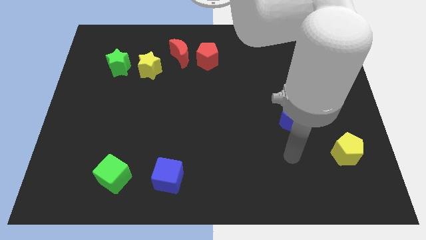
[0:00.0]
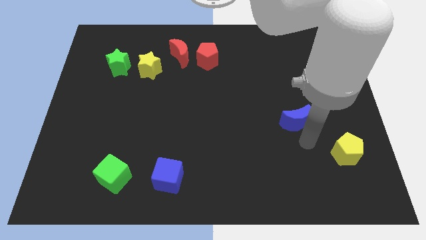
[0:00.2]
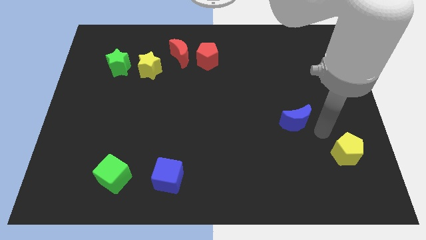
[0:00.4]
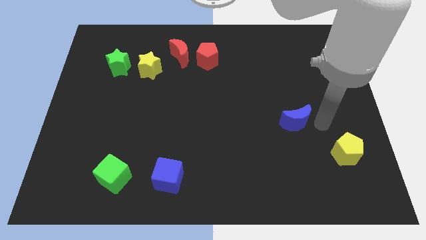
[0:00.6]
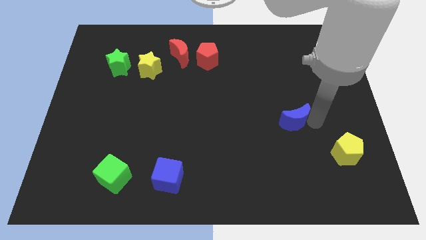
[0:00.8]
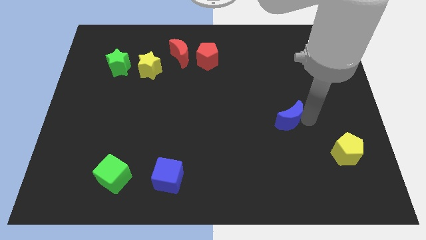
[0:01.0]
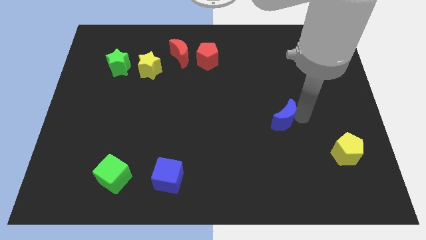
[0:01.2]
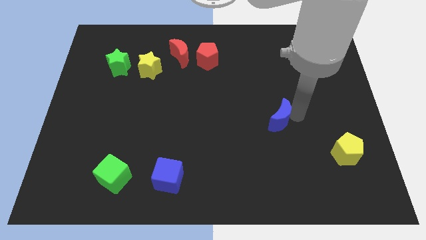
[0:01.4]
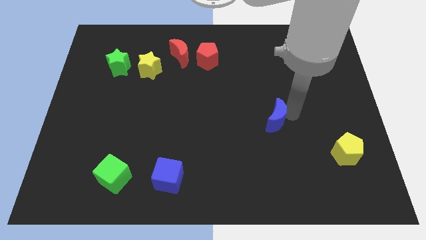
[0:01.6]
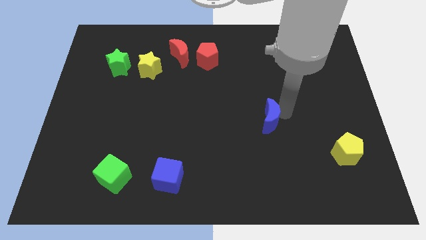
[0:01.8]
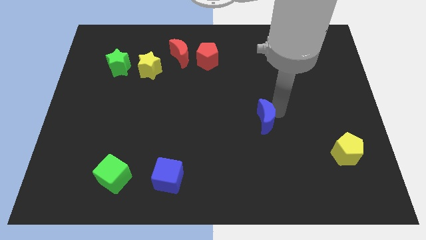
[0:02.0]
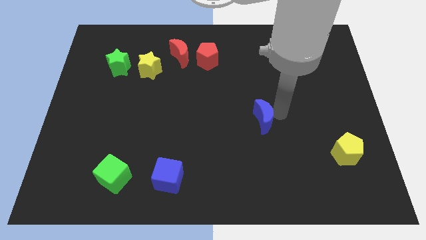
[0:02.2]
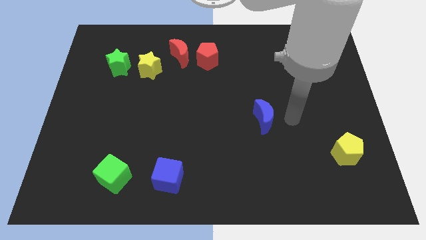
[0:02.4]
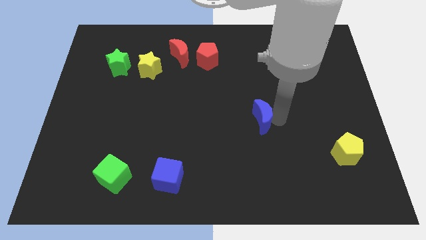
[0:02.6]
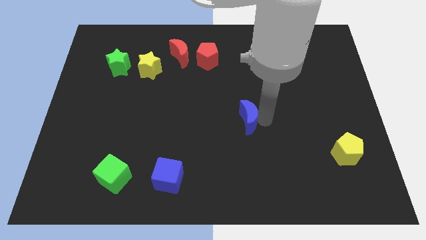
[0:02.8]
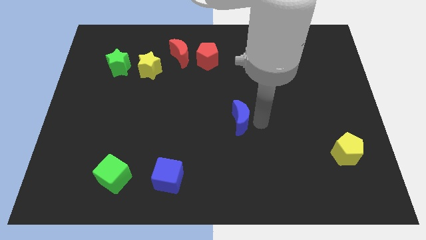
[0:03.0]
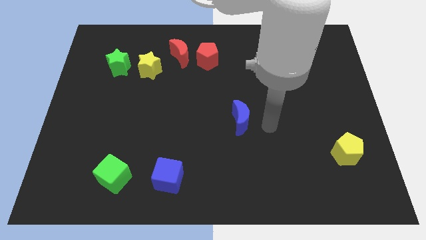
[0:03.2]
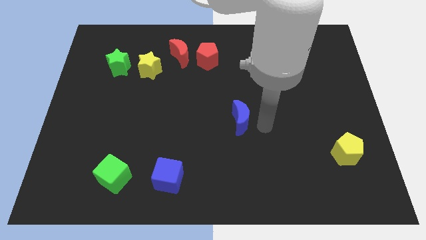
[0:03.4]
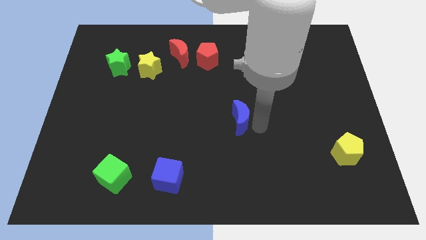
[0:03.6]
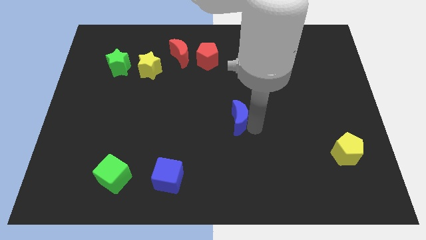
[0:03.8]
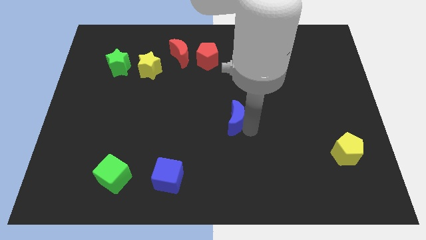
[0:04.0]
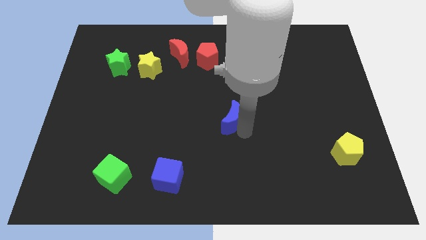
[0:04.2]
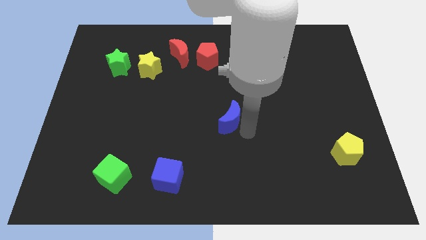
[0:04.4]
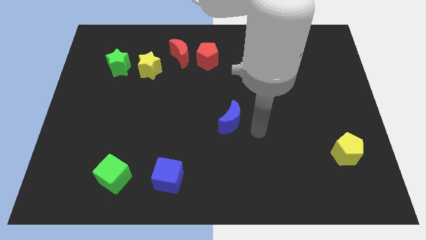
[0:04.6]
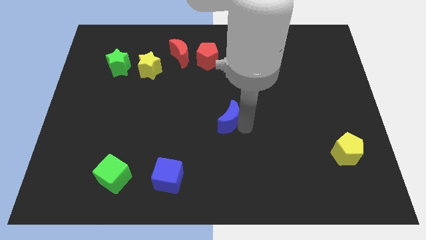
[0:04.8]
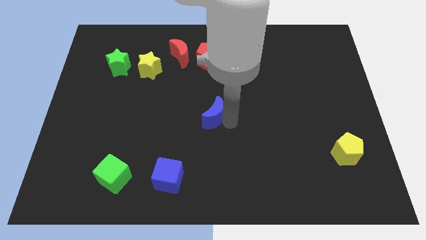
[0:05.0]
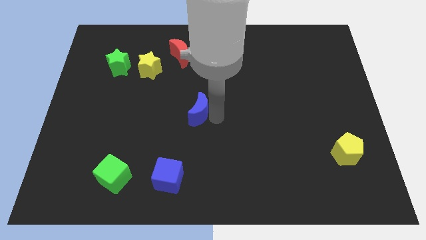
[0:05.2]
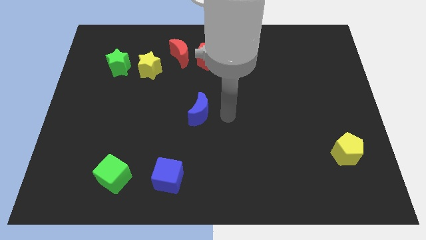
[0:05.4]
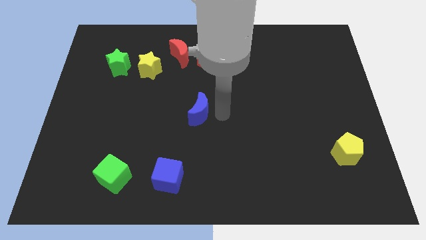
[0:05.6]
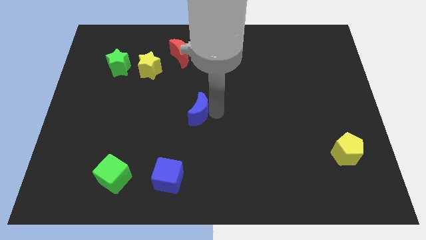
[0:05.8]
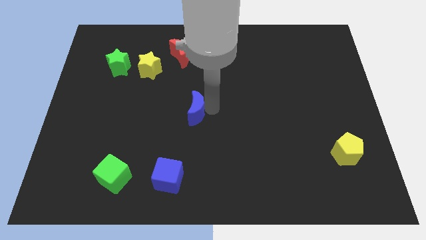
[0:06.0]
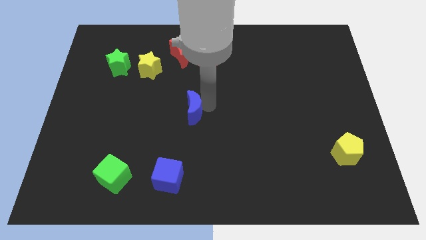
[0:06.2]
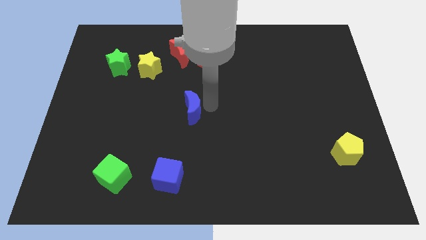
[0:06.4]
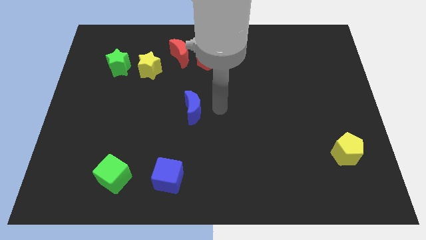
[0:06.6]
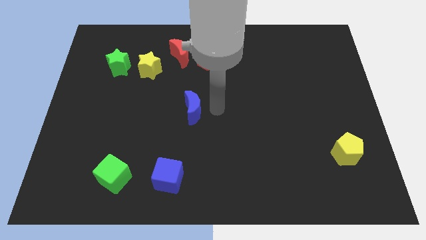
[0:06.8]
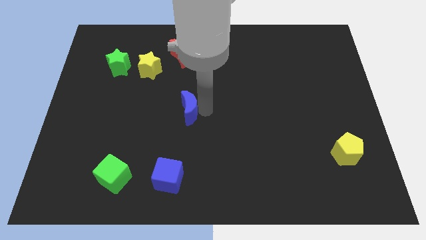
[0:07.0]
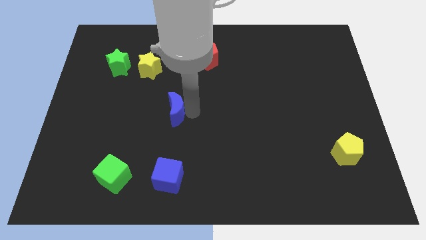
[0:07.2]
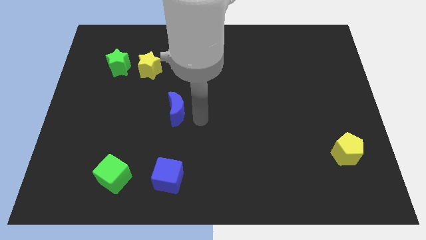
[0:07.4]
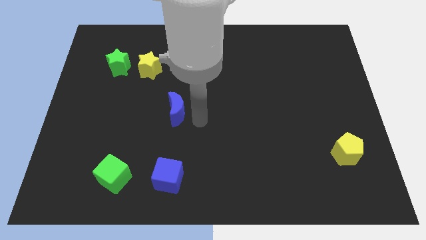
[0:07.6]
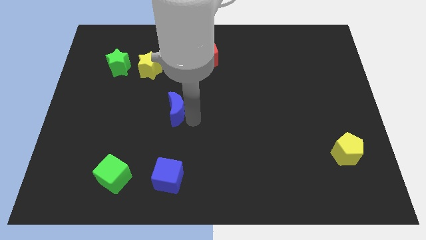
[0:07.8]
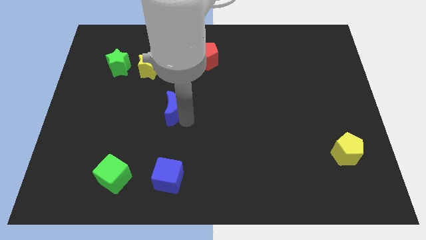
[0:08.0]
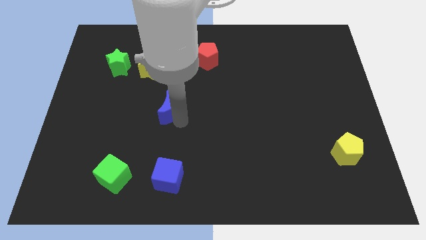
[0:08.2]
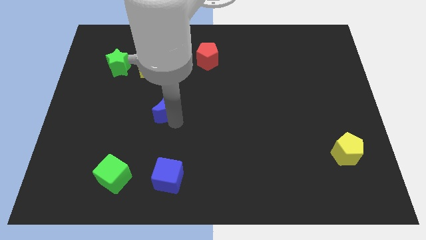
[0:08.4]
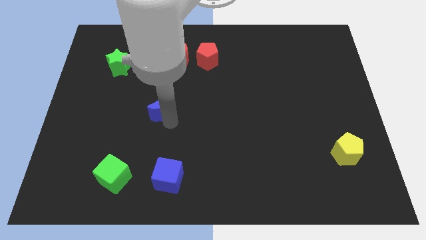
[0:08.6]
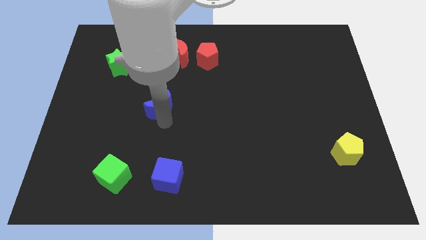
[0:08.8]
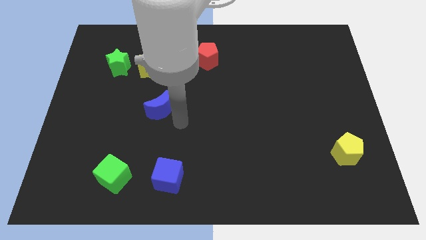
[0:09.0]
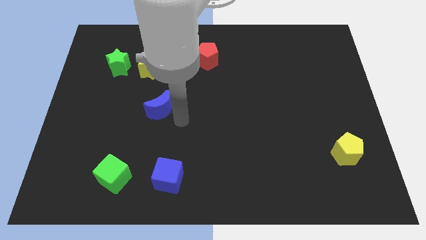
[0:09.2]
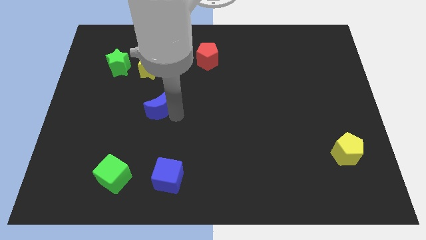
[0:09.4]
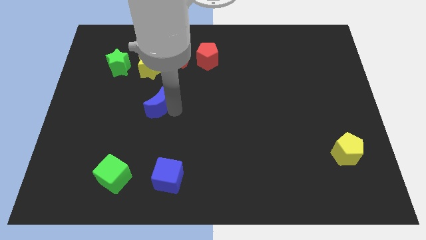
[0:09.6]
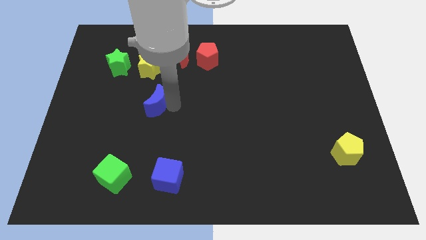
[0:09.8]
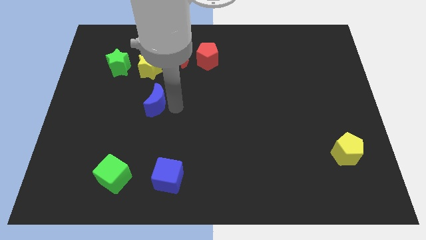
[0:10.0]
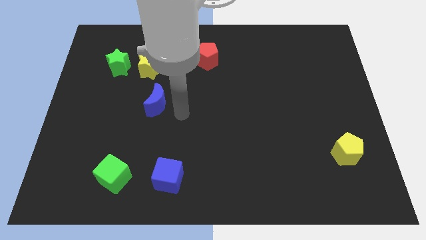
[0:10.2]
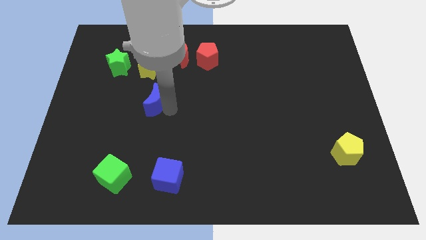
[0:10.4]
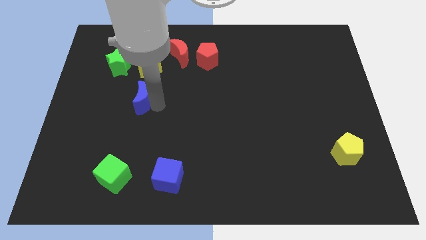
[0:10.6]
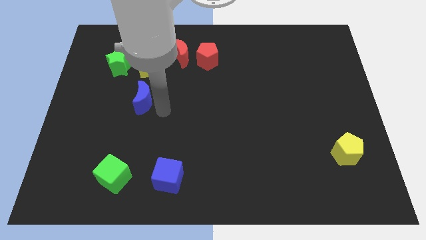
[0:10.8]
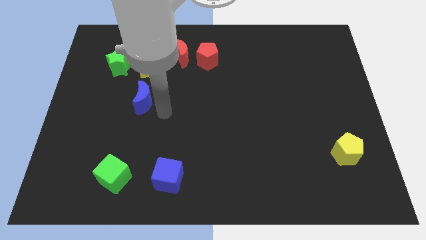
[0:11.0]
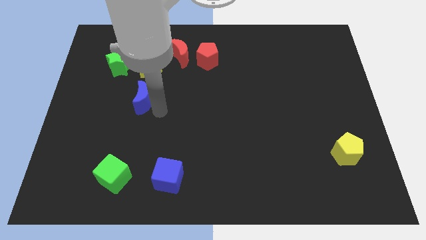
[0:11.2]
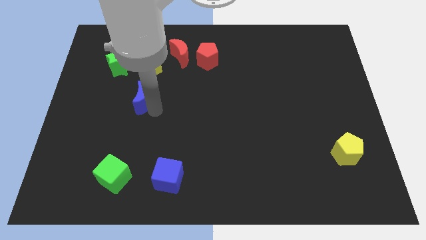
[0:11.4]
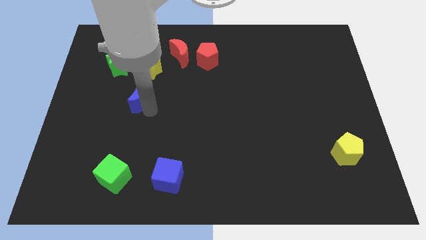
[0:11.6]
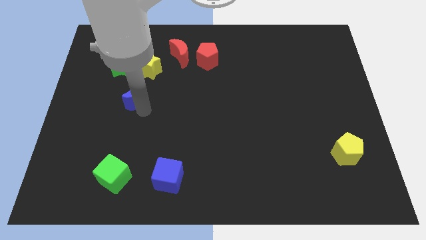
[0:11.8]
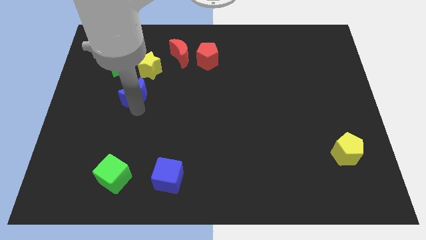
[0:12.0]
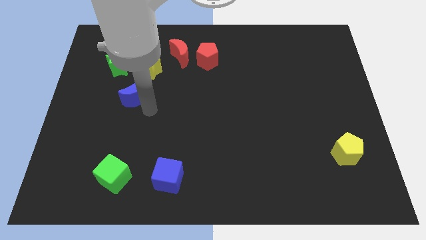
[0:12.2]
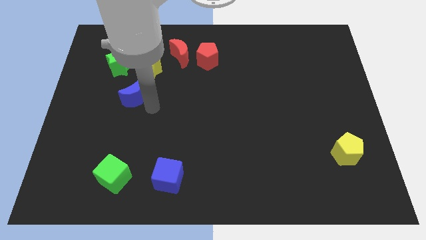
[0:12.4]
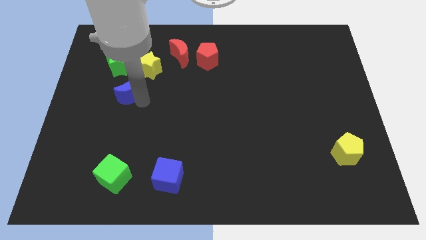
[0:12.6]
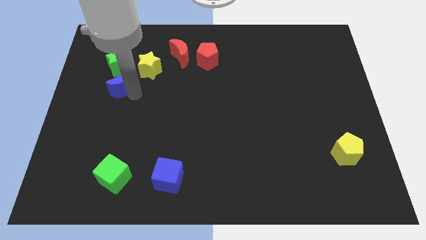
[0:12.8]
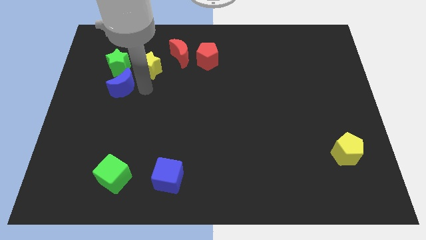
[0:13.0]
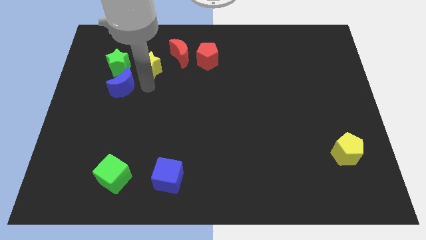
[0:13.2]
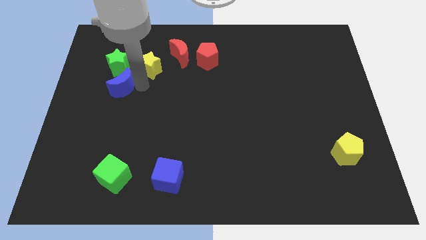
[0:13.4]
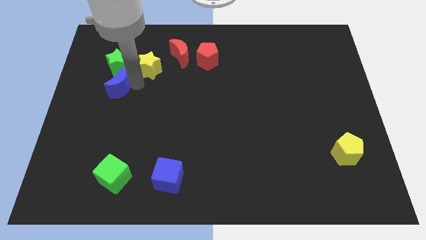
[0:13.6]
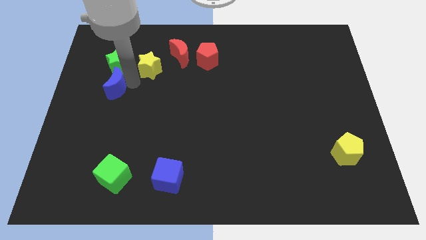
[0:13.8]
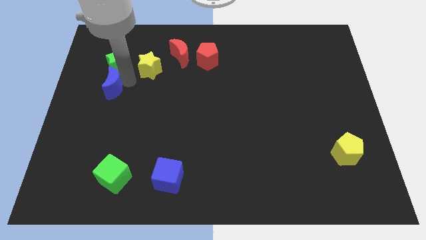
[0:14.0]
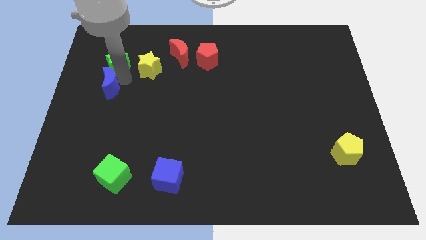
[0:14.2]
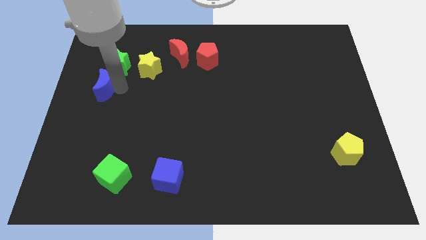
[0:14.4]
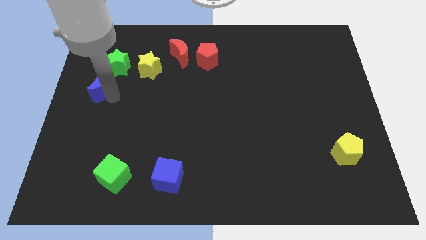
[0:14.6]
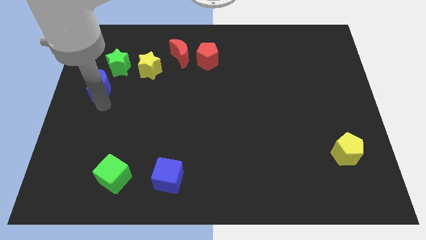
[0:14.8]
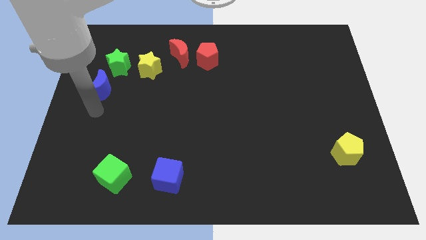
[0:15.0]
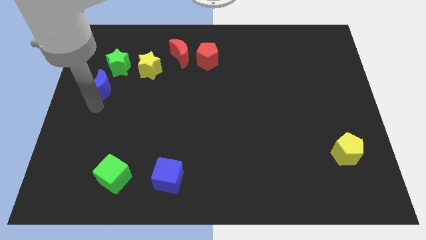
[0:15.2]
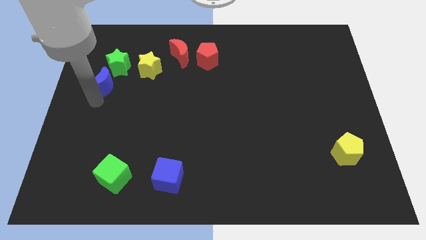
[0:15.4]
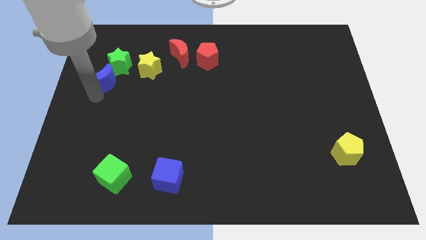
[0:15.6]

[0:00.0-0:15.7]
put the blue moon just left of the yellow star
